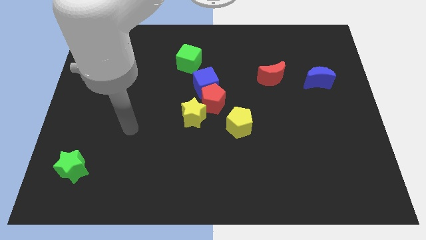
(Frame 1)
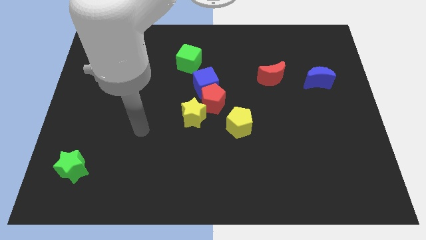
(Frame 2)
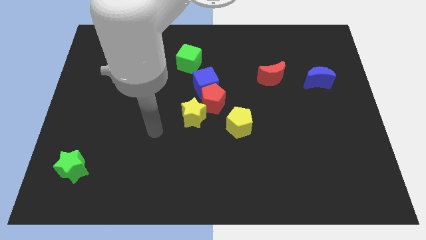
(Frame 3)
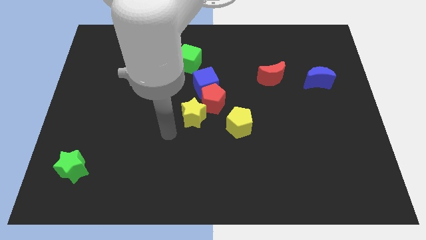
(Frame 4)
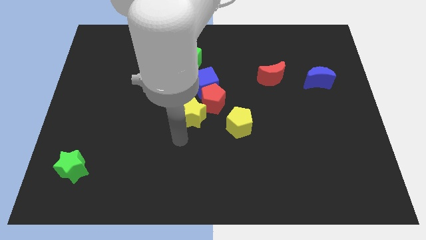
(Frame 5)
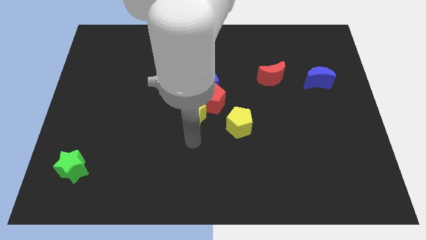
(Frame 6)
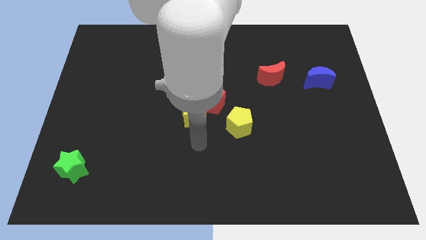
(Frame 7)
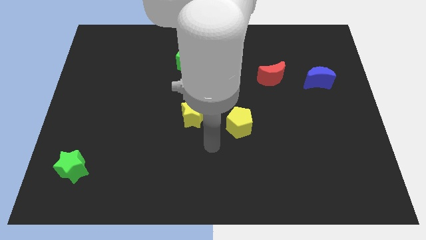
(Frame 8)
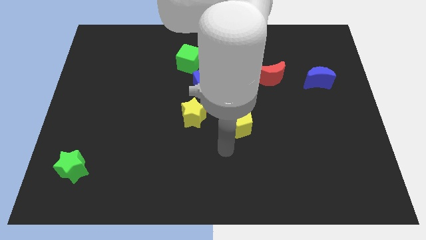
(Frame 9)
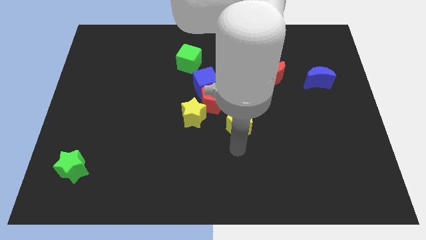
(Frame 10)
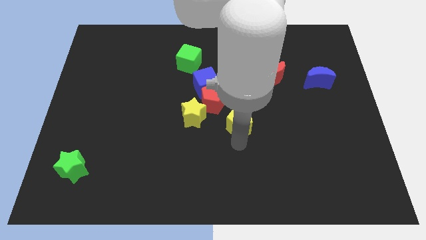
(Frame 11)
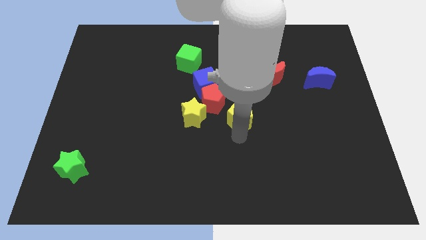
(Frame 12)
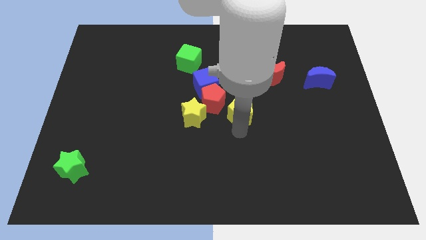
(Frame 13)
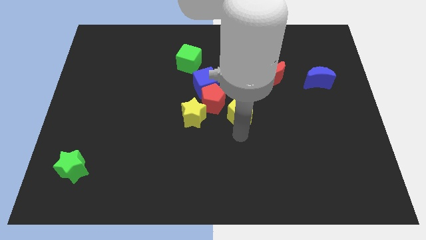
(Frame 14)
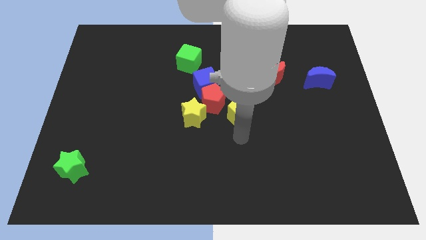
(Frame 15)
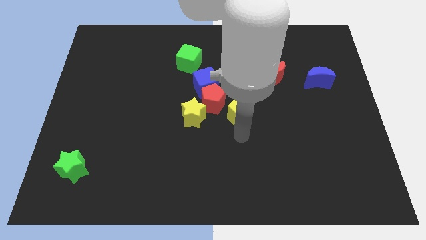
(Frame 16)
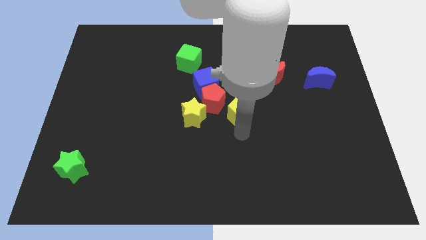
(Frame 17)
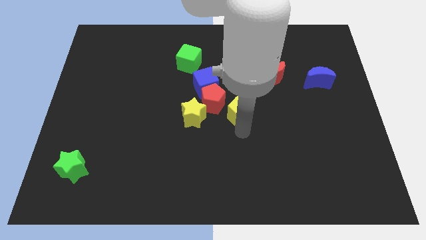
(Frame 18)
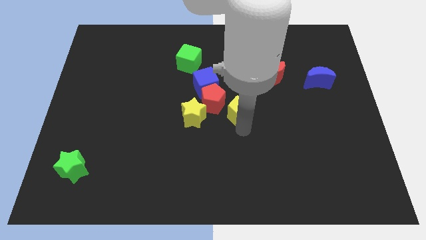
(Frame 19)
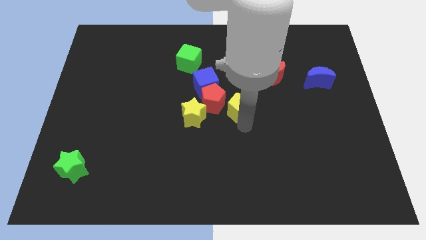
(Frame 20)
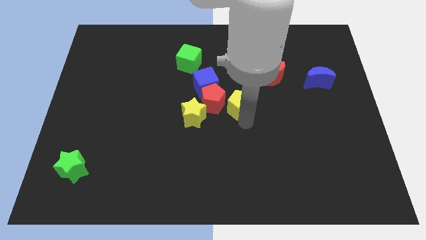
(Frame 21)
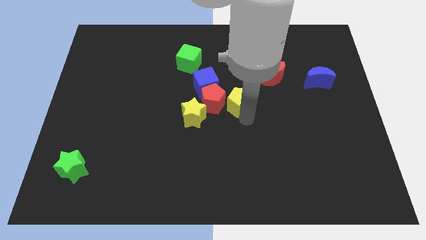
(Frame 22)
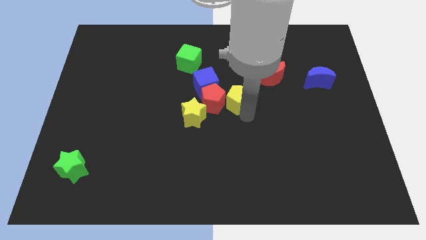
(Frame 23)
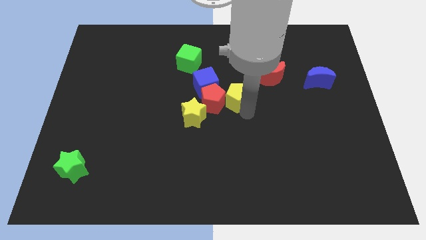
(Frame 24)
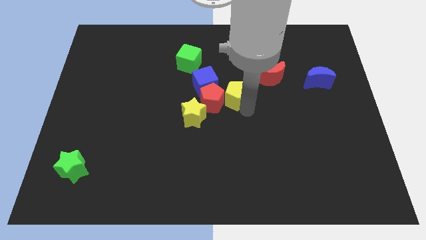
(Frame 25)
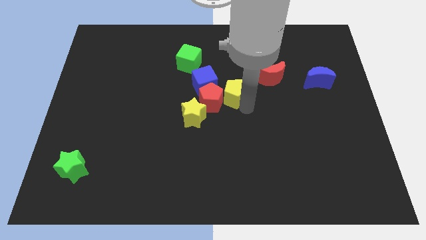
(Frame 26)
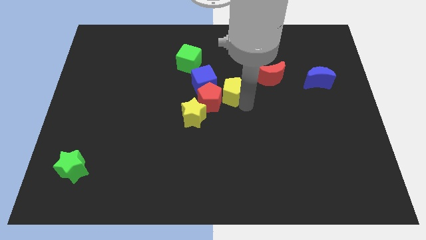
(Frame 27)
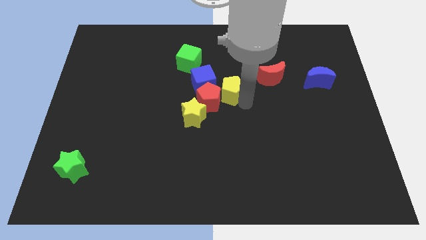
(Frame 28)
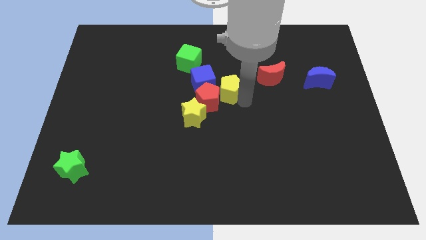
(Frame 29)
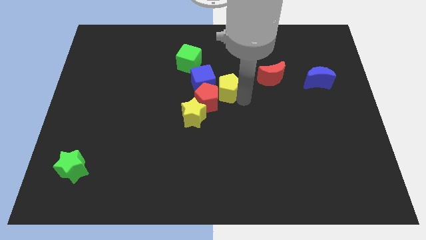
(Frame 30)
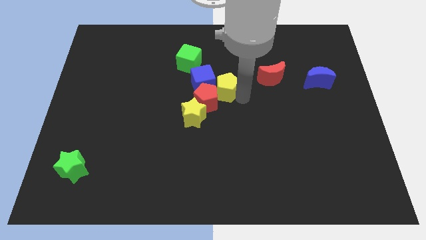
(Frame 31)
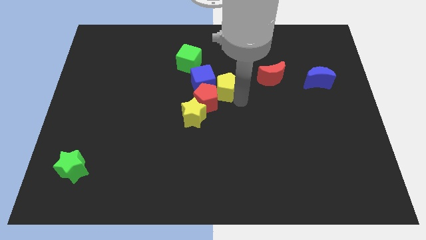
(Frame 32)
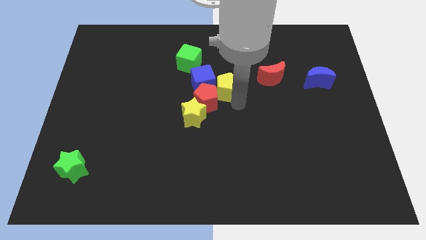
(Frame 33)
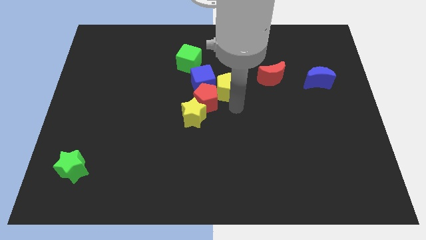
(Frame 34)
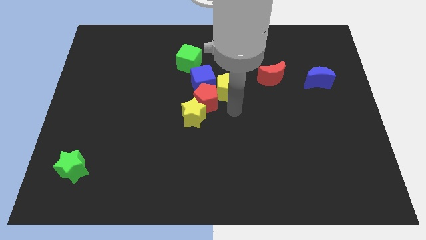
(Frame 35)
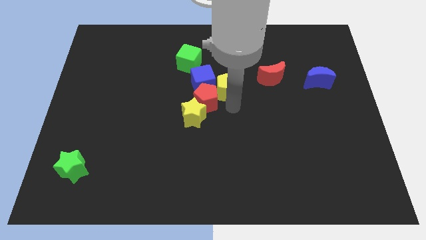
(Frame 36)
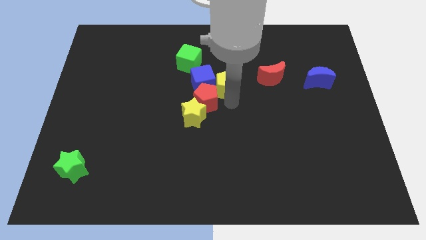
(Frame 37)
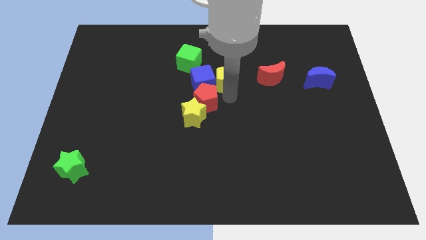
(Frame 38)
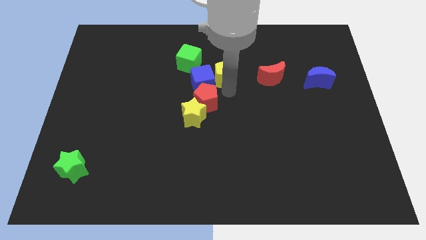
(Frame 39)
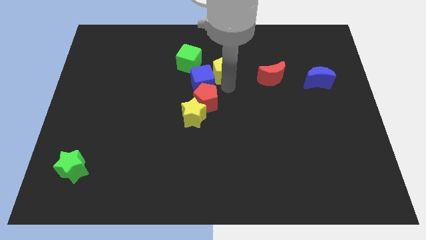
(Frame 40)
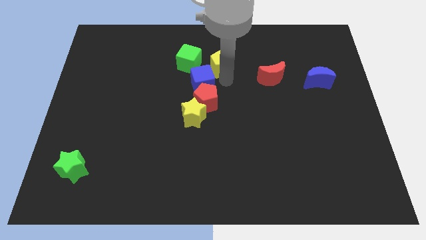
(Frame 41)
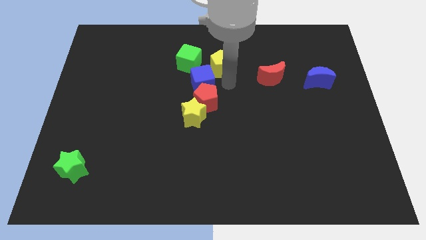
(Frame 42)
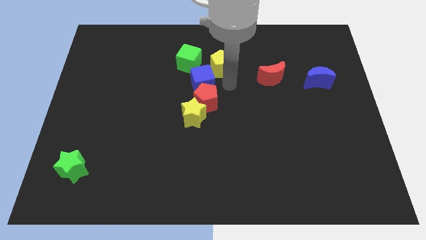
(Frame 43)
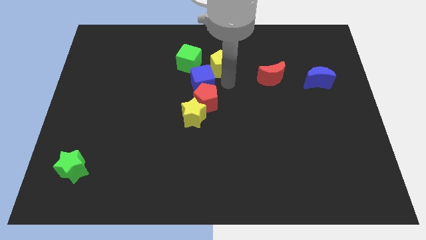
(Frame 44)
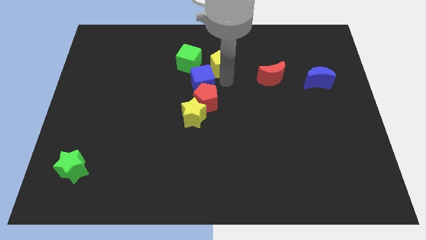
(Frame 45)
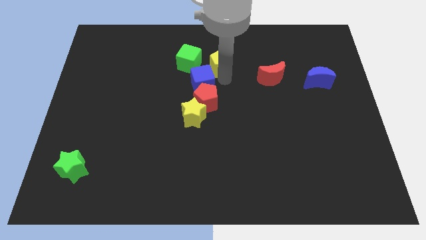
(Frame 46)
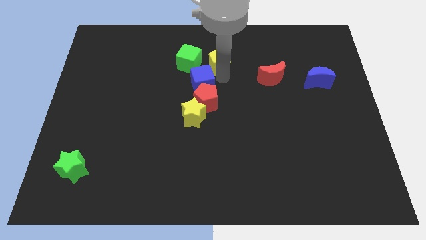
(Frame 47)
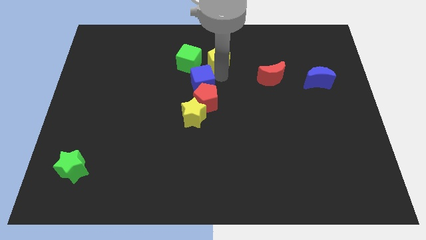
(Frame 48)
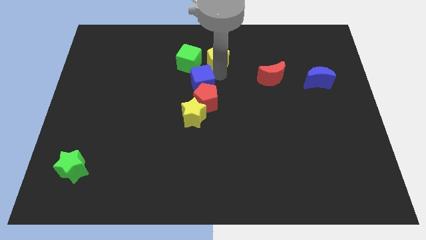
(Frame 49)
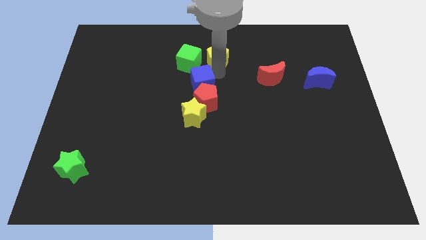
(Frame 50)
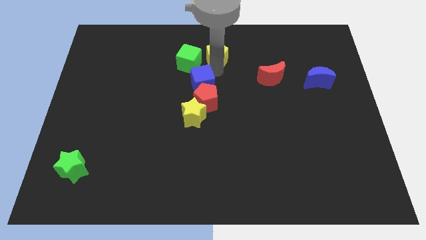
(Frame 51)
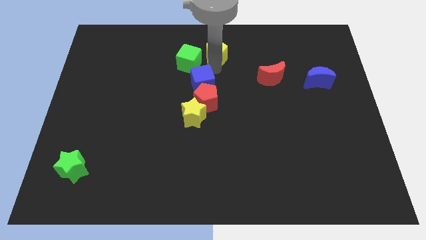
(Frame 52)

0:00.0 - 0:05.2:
put the yellow pentagon to the top

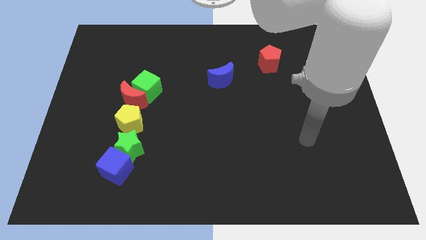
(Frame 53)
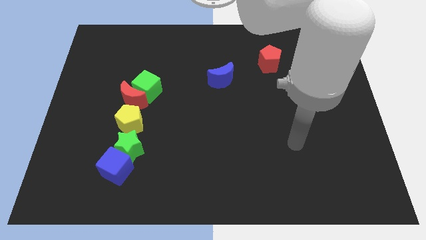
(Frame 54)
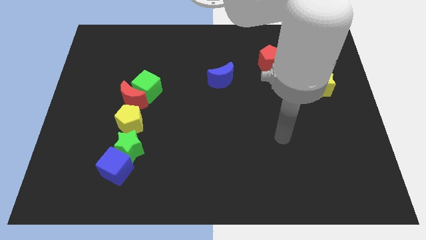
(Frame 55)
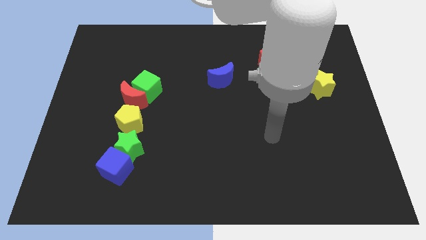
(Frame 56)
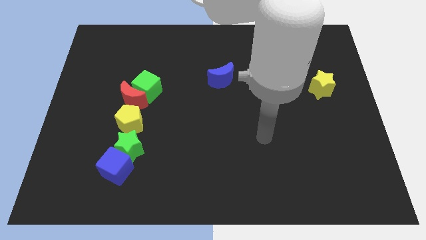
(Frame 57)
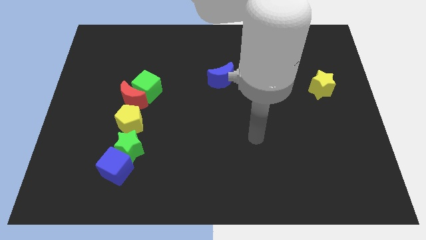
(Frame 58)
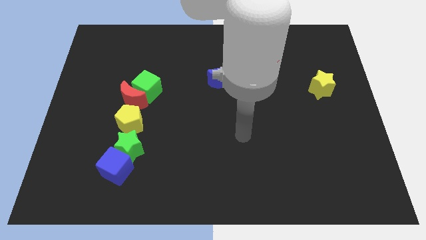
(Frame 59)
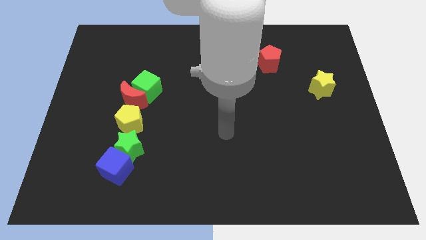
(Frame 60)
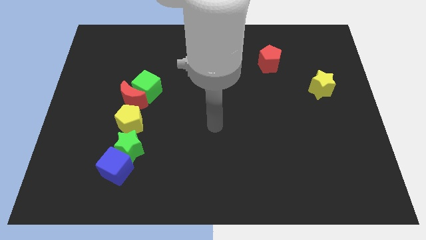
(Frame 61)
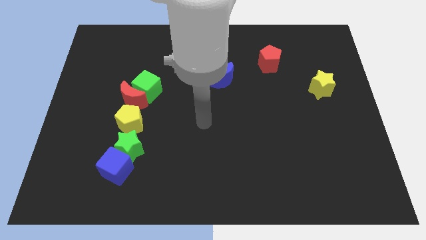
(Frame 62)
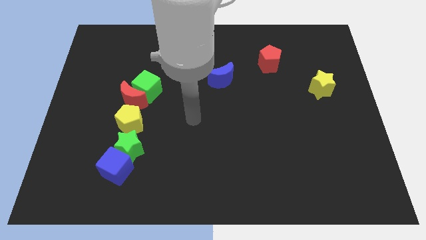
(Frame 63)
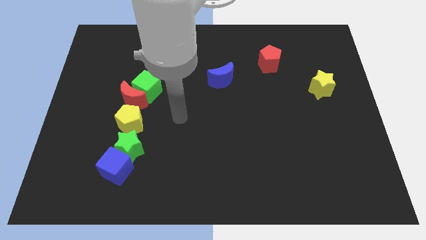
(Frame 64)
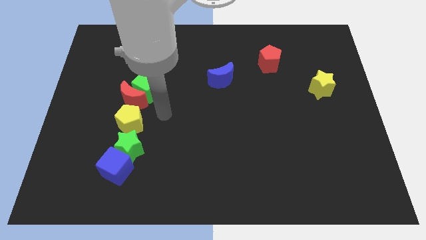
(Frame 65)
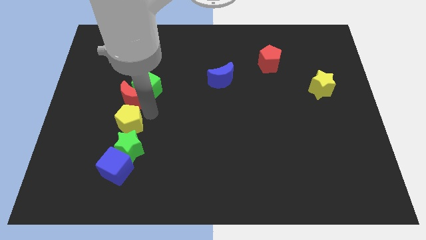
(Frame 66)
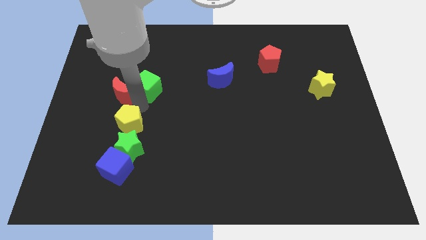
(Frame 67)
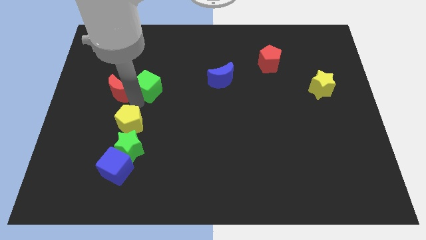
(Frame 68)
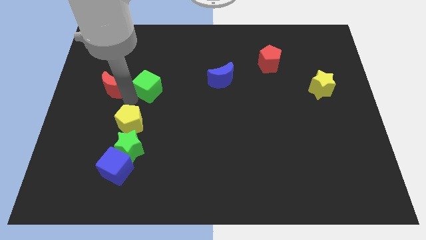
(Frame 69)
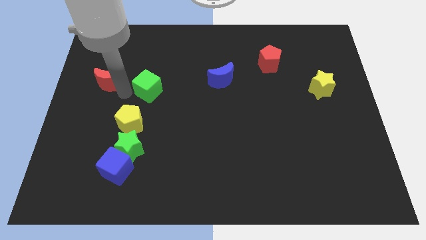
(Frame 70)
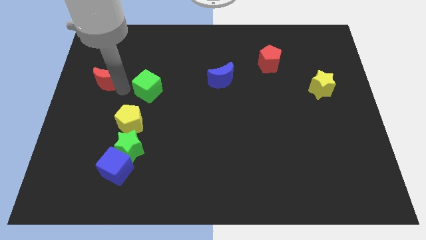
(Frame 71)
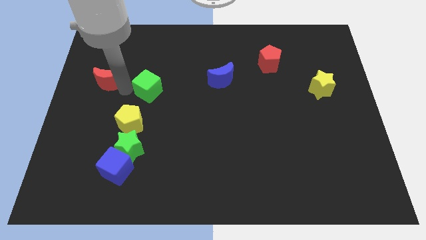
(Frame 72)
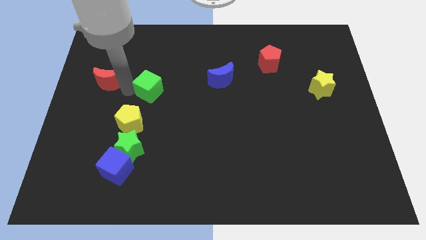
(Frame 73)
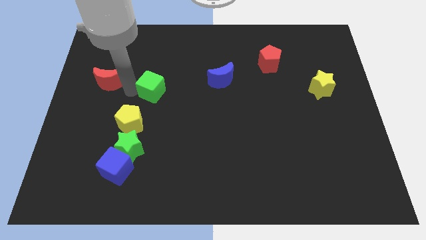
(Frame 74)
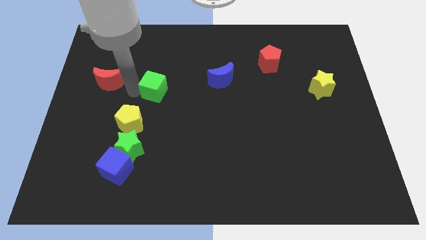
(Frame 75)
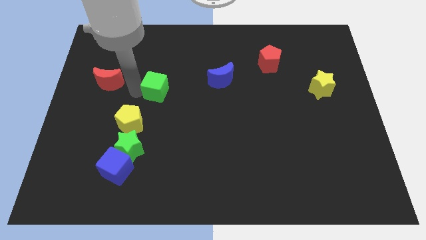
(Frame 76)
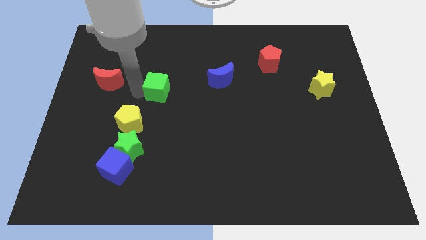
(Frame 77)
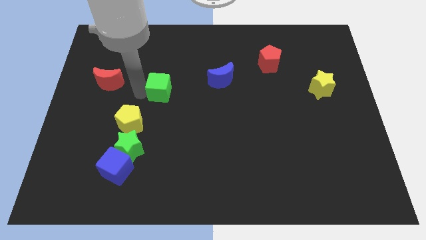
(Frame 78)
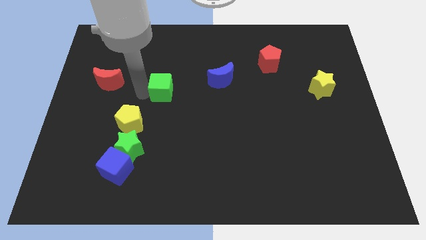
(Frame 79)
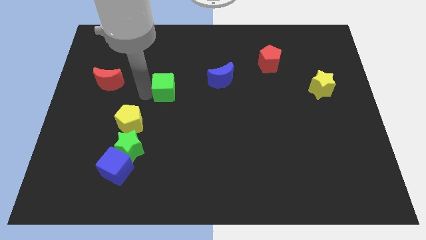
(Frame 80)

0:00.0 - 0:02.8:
push the green cube to the middle of the board
